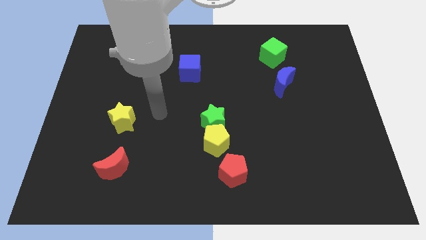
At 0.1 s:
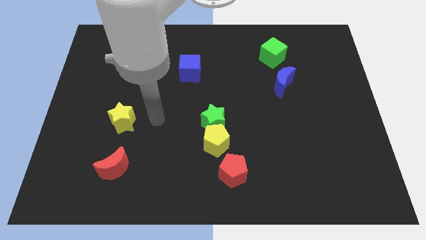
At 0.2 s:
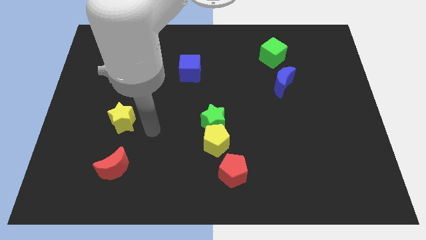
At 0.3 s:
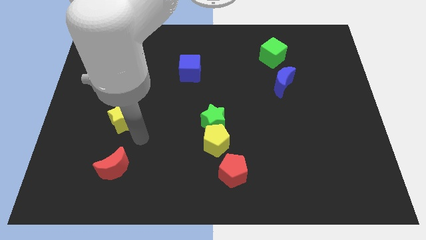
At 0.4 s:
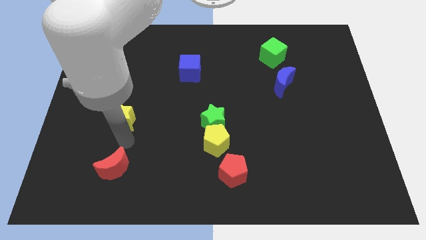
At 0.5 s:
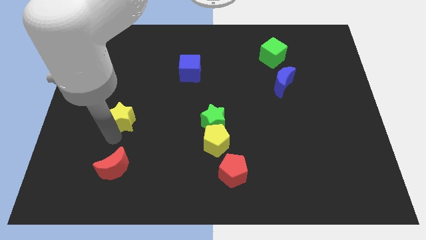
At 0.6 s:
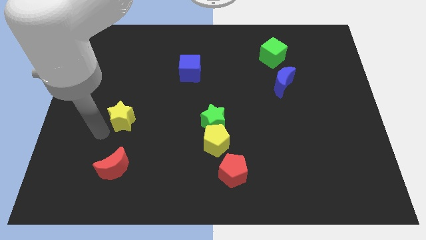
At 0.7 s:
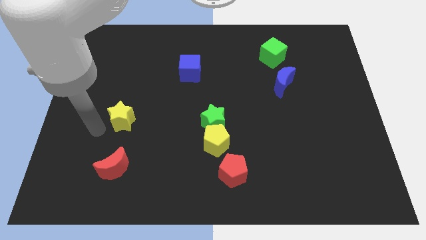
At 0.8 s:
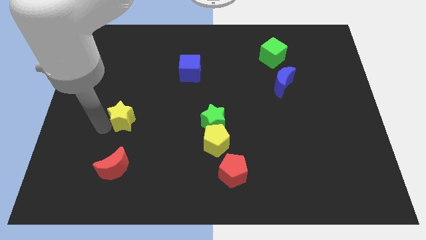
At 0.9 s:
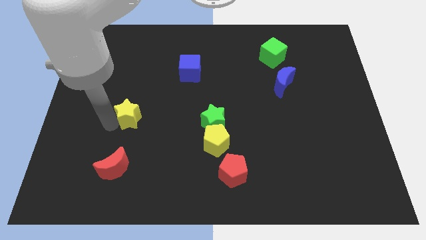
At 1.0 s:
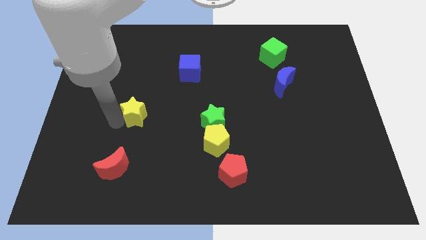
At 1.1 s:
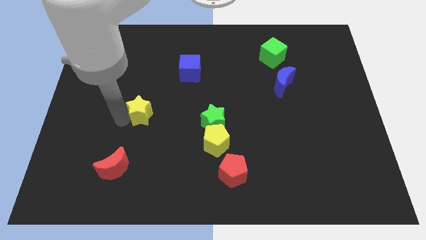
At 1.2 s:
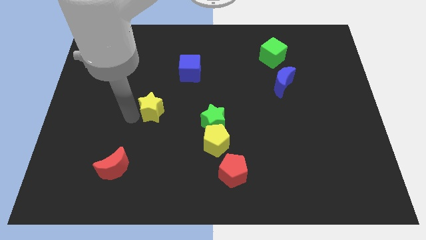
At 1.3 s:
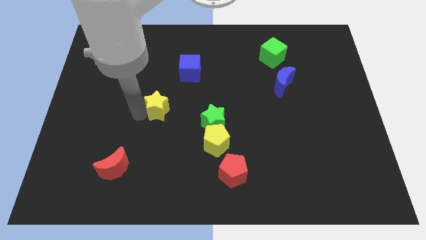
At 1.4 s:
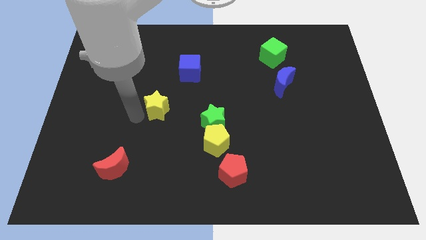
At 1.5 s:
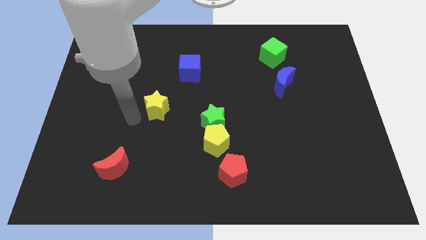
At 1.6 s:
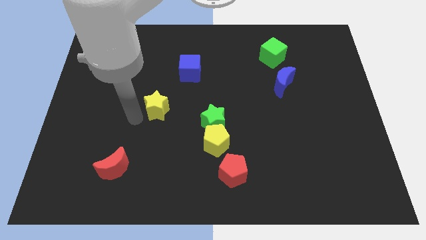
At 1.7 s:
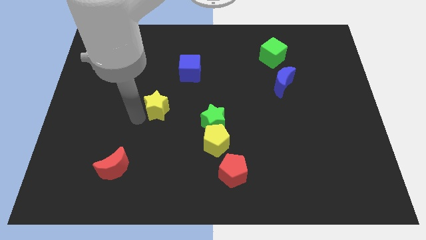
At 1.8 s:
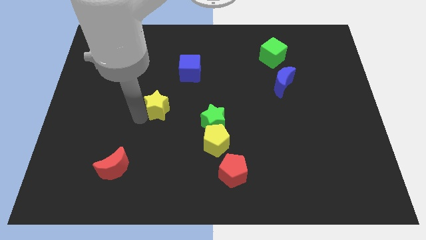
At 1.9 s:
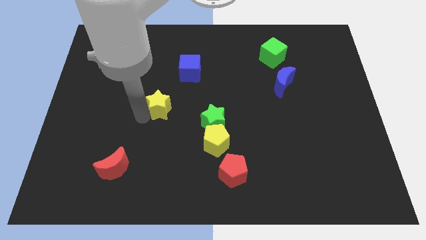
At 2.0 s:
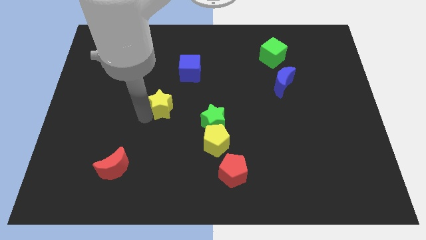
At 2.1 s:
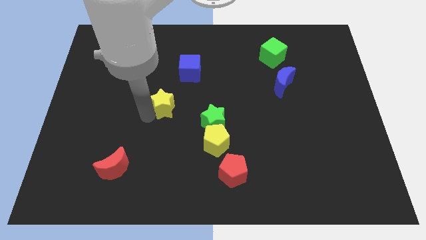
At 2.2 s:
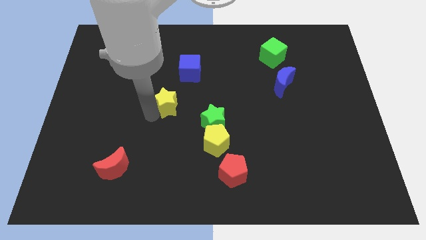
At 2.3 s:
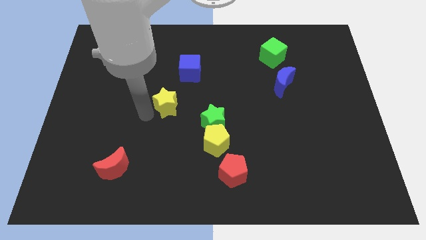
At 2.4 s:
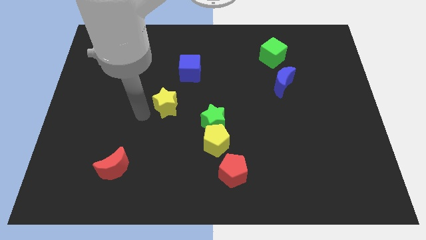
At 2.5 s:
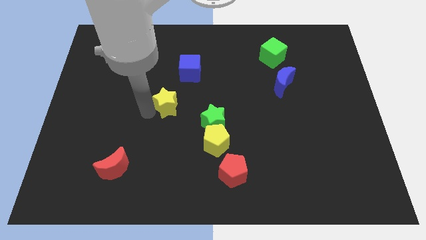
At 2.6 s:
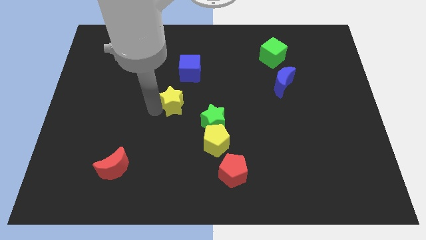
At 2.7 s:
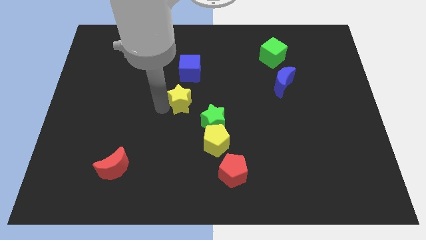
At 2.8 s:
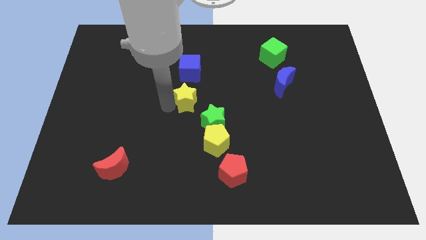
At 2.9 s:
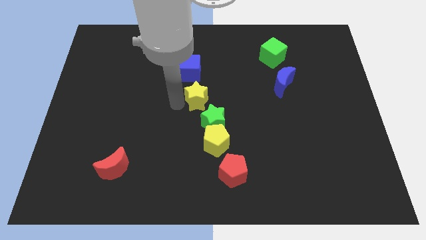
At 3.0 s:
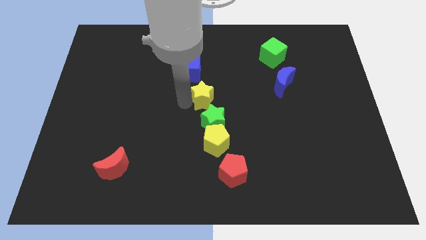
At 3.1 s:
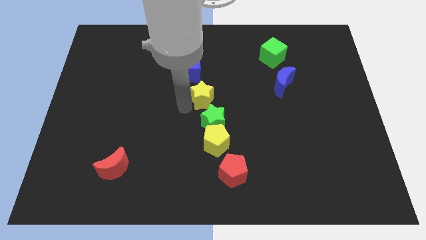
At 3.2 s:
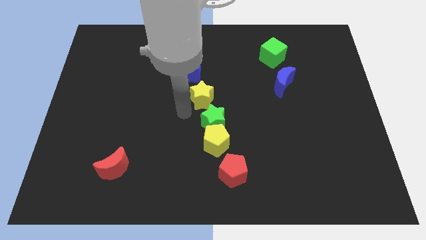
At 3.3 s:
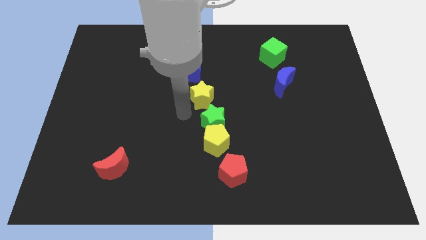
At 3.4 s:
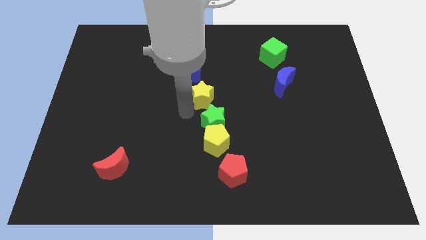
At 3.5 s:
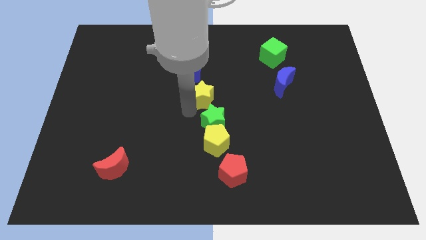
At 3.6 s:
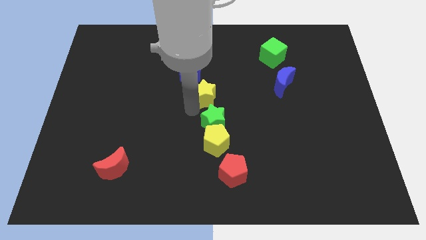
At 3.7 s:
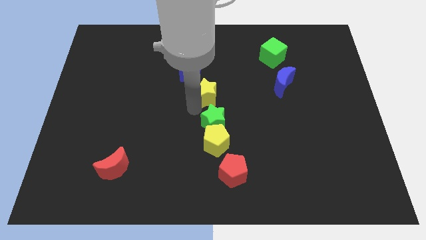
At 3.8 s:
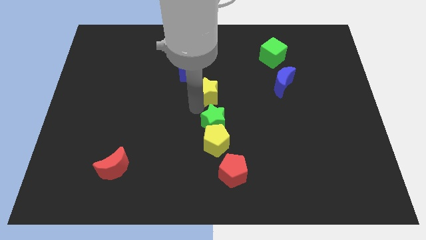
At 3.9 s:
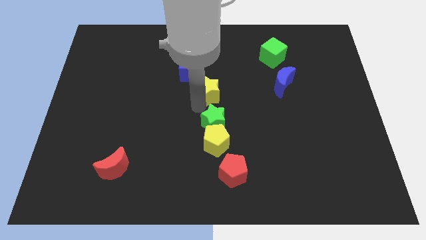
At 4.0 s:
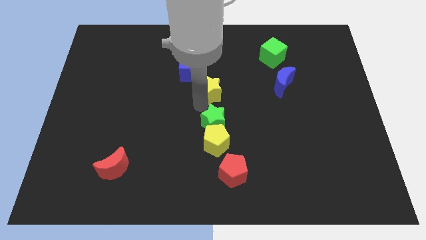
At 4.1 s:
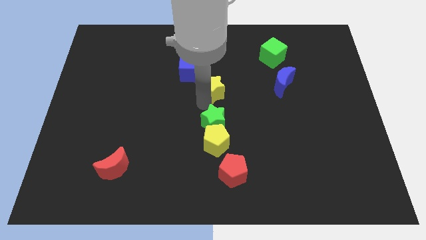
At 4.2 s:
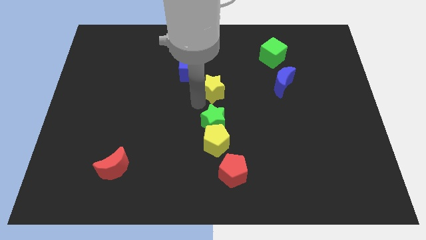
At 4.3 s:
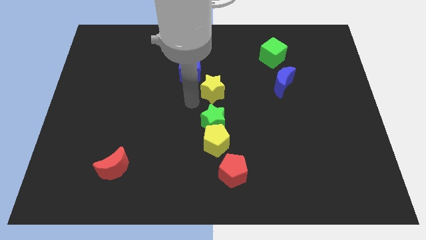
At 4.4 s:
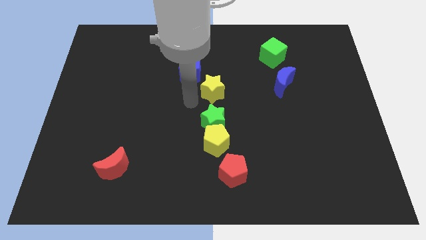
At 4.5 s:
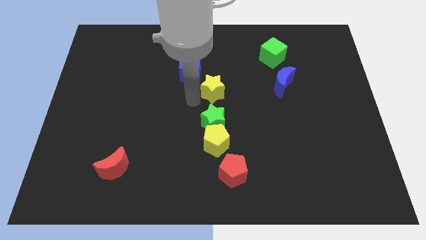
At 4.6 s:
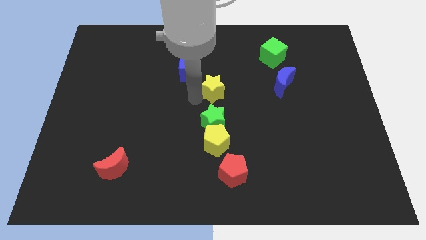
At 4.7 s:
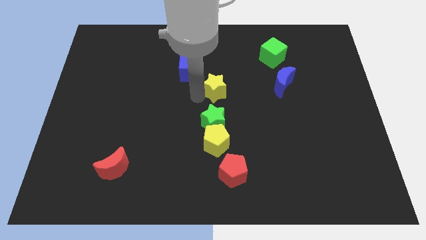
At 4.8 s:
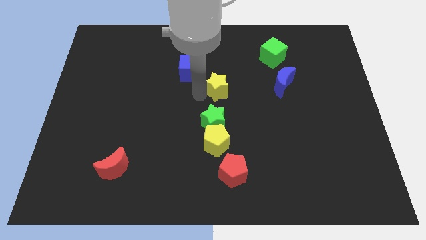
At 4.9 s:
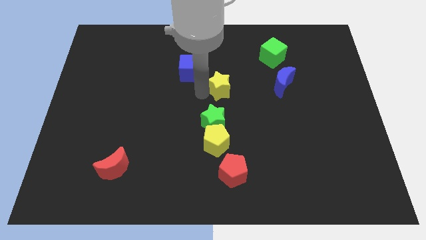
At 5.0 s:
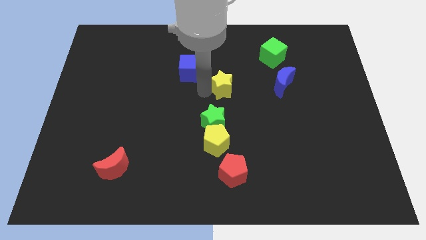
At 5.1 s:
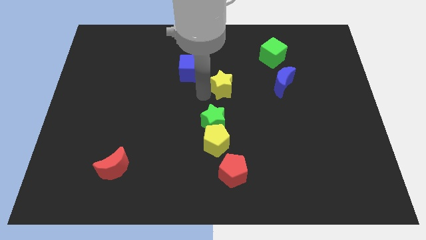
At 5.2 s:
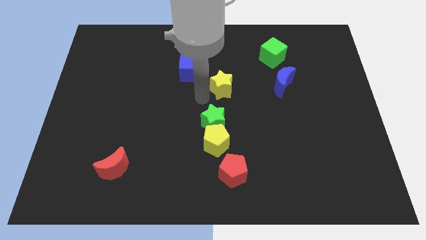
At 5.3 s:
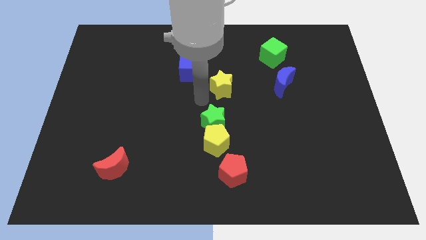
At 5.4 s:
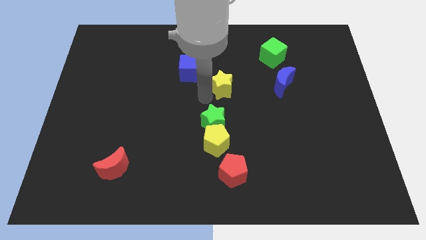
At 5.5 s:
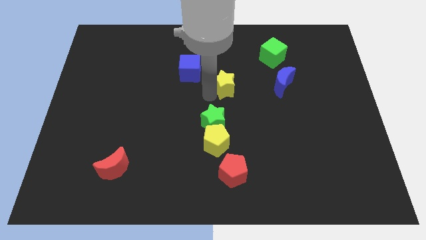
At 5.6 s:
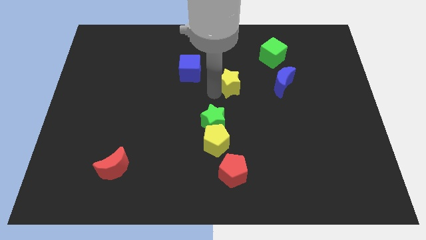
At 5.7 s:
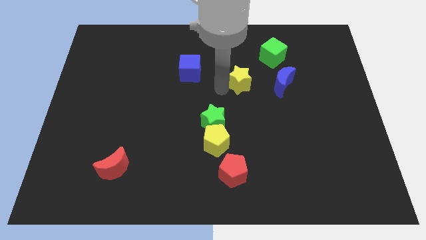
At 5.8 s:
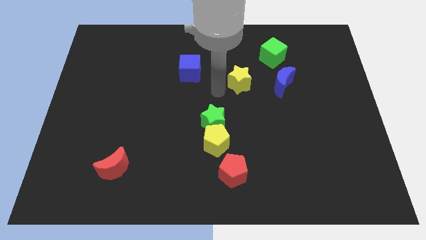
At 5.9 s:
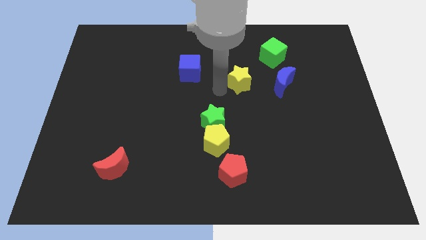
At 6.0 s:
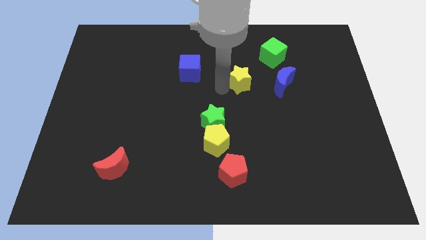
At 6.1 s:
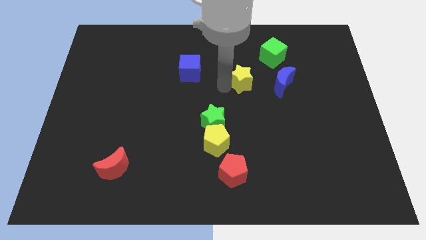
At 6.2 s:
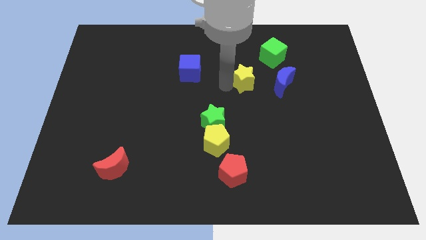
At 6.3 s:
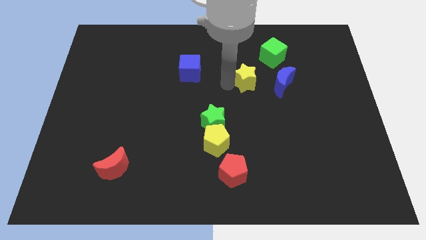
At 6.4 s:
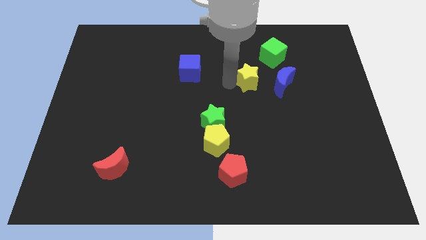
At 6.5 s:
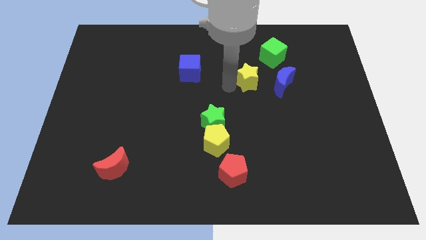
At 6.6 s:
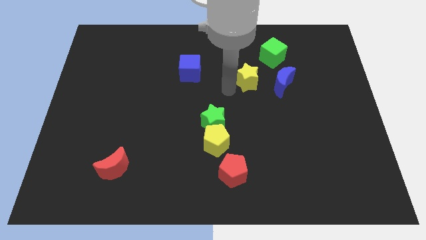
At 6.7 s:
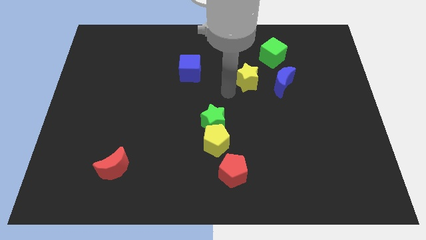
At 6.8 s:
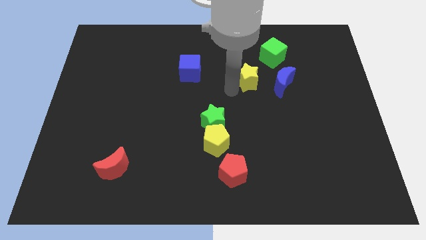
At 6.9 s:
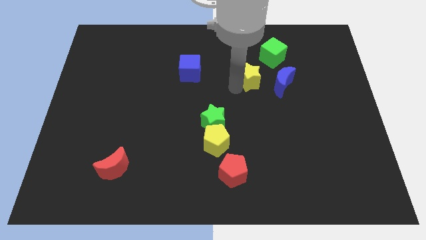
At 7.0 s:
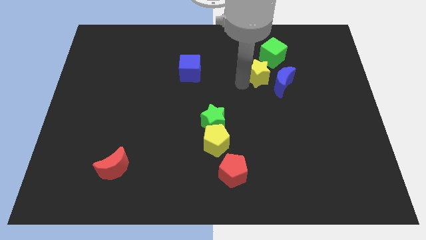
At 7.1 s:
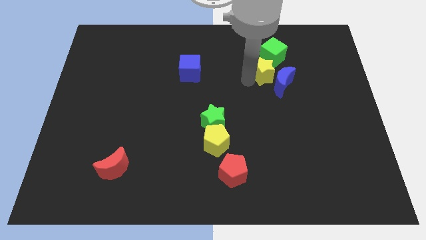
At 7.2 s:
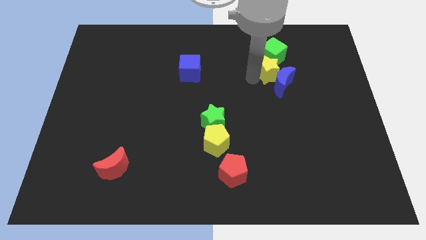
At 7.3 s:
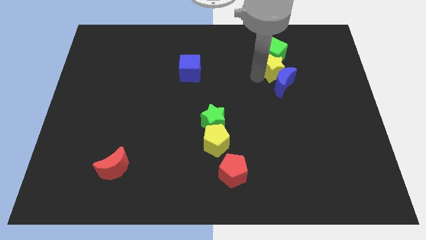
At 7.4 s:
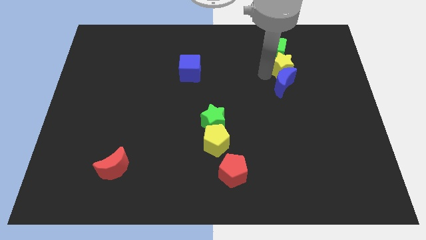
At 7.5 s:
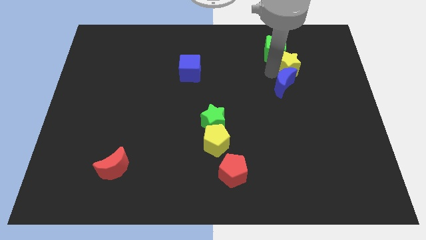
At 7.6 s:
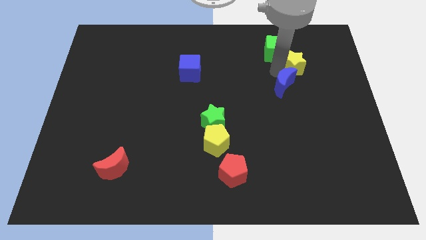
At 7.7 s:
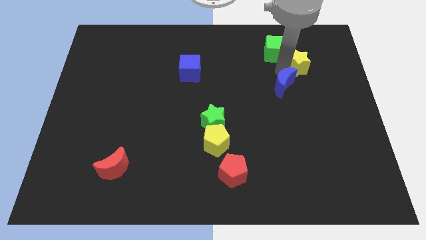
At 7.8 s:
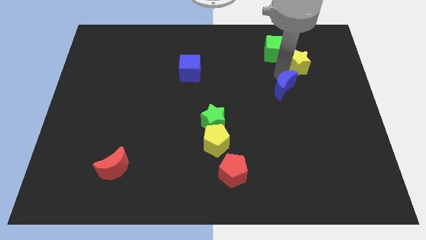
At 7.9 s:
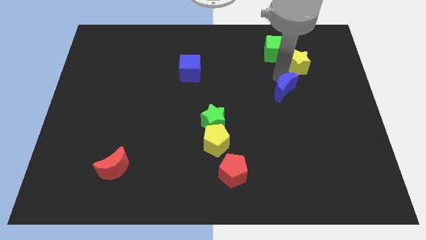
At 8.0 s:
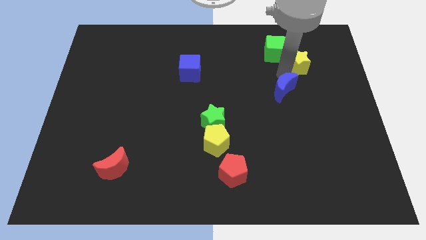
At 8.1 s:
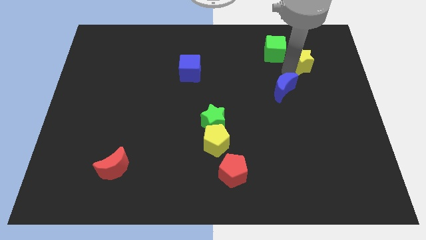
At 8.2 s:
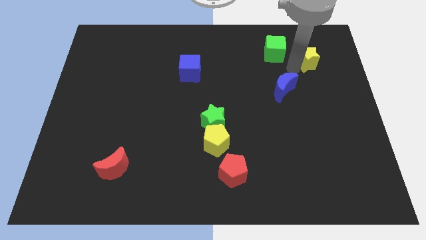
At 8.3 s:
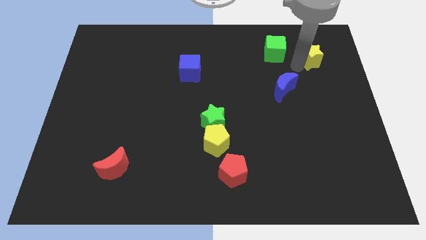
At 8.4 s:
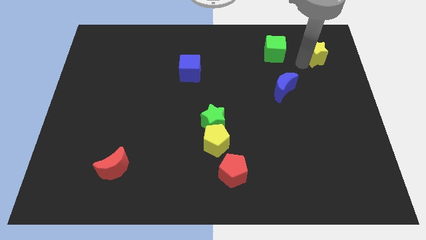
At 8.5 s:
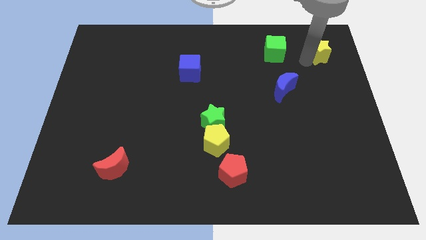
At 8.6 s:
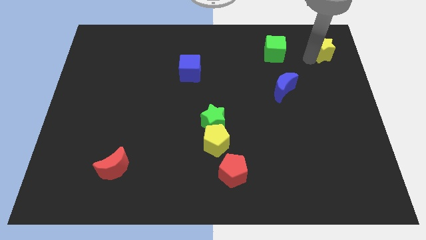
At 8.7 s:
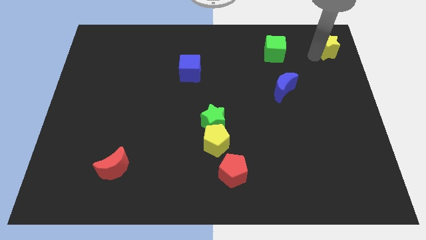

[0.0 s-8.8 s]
move the yellow star to the top right
